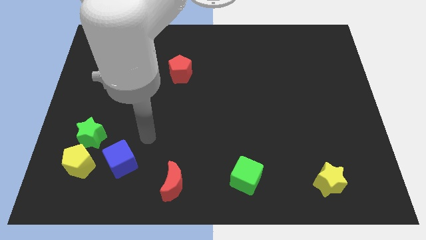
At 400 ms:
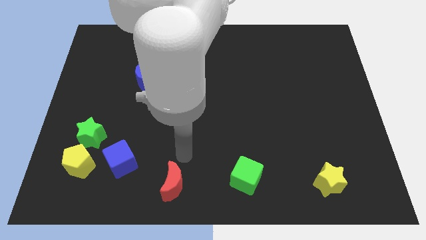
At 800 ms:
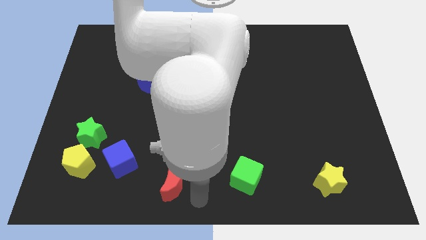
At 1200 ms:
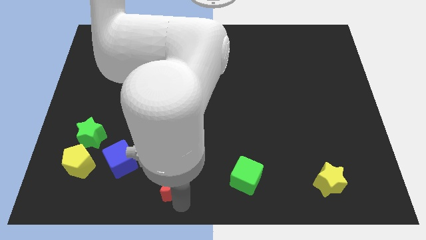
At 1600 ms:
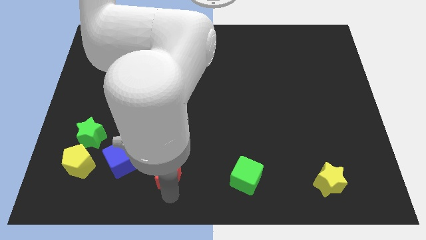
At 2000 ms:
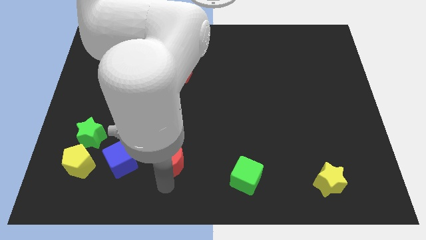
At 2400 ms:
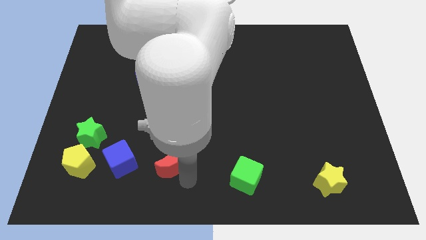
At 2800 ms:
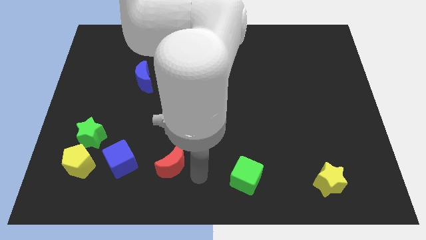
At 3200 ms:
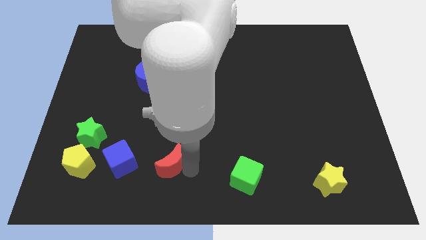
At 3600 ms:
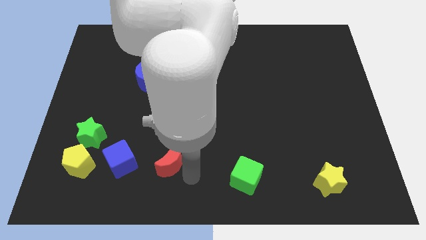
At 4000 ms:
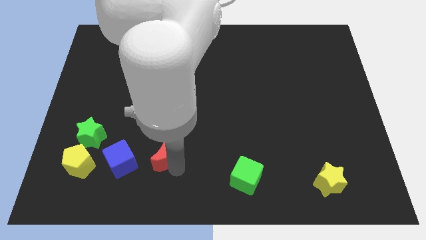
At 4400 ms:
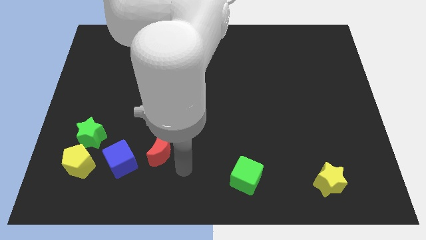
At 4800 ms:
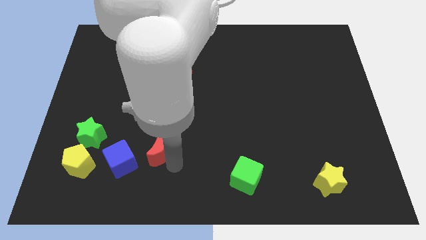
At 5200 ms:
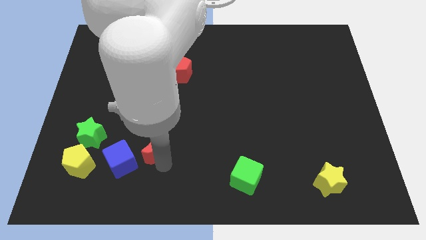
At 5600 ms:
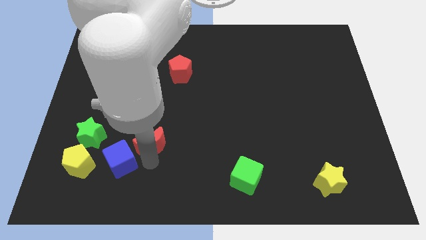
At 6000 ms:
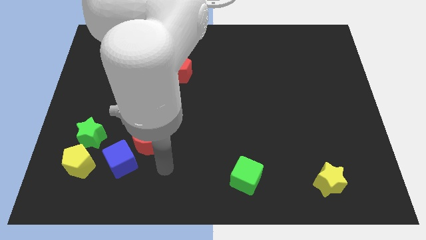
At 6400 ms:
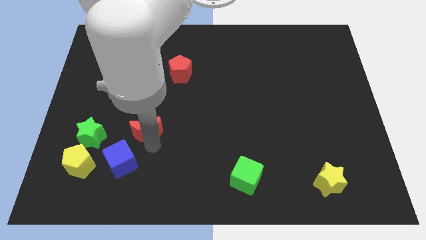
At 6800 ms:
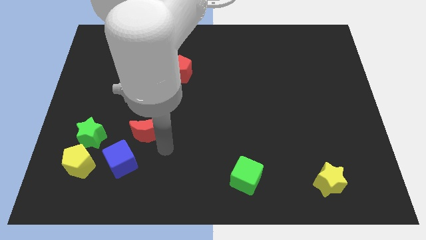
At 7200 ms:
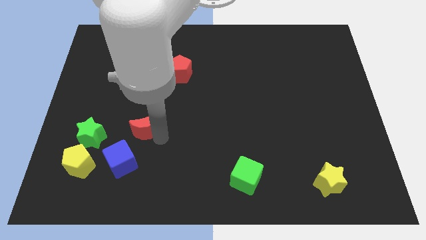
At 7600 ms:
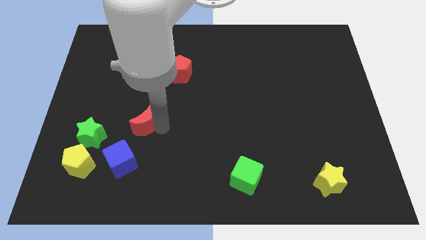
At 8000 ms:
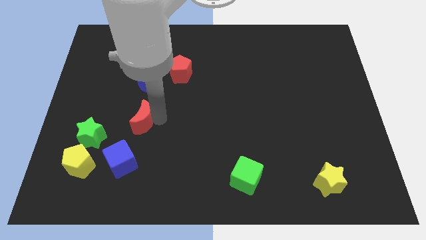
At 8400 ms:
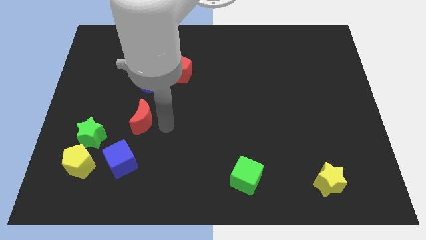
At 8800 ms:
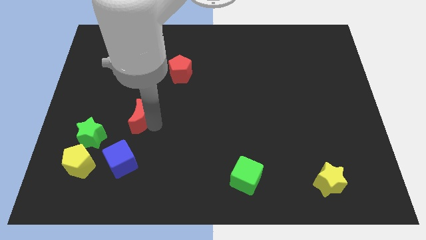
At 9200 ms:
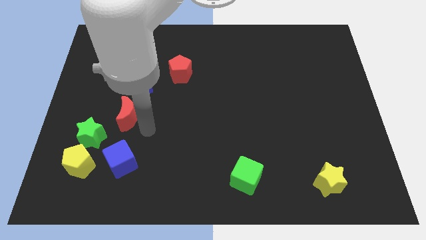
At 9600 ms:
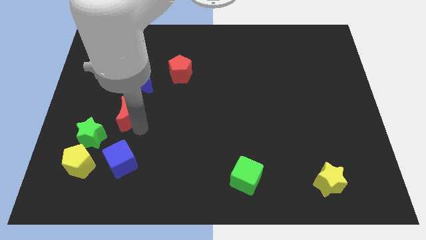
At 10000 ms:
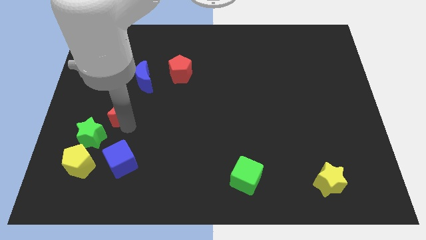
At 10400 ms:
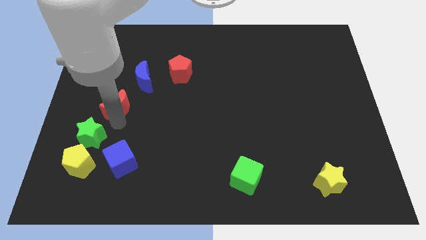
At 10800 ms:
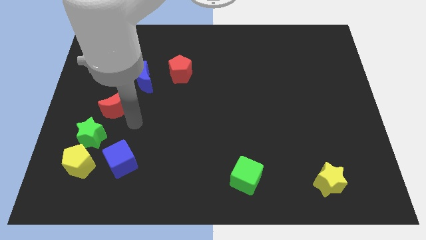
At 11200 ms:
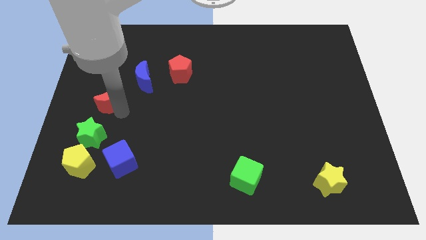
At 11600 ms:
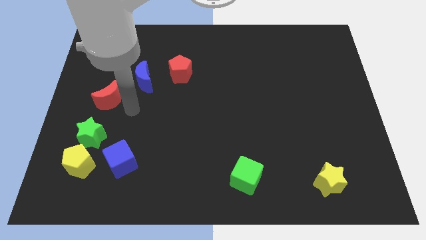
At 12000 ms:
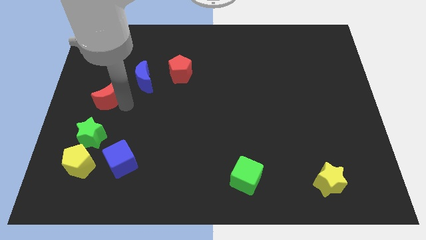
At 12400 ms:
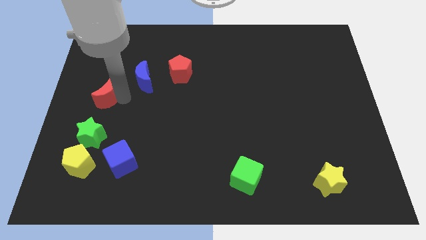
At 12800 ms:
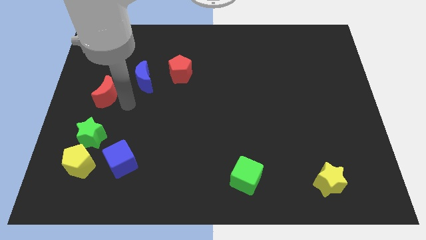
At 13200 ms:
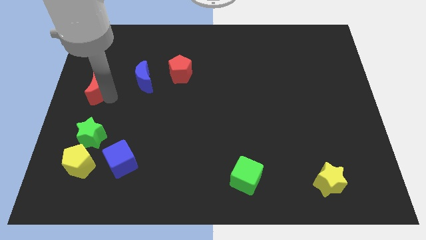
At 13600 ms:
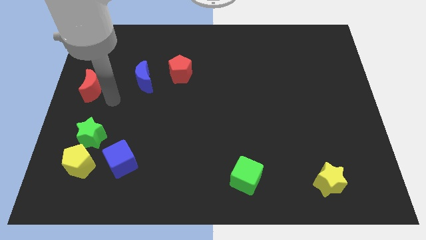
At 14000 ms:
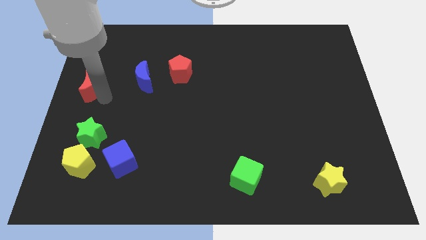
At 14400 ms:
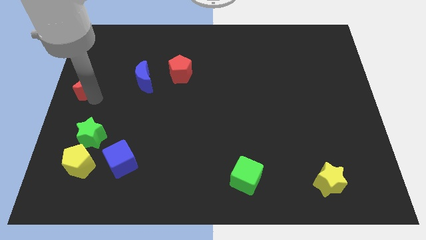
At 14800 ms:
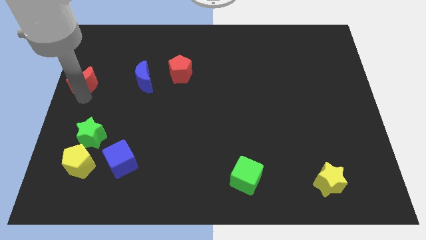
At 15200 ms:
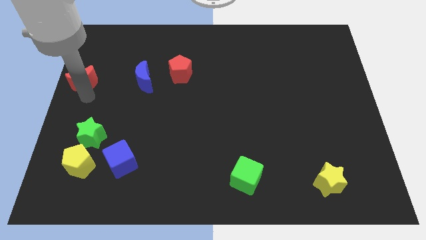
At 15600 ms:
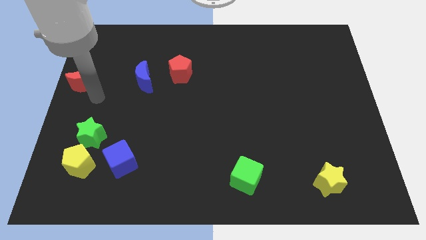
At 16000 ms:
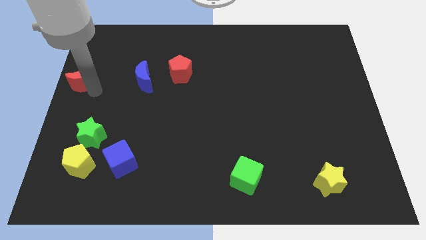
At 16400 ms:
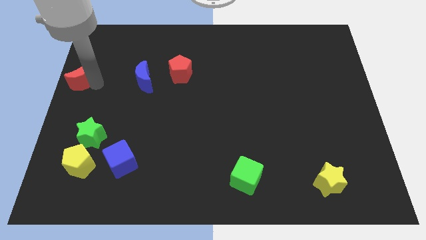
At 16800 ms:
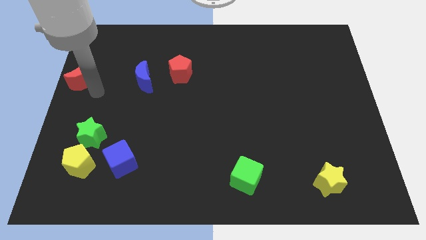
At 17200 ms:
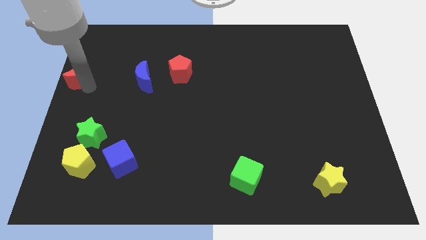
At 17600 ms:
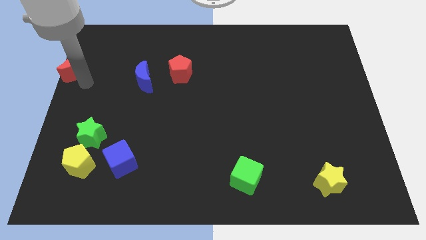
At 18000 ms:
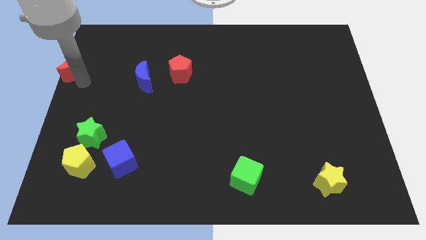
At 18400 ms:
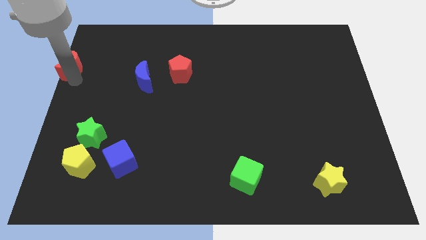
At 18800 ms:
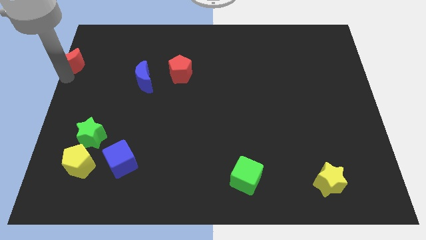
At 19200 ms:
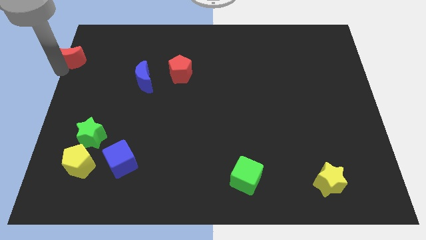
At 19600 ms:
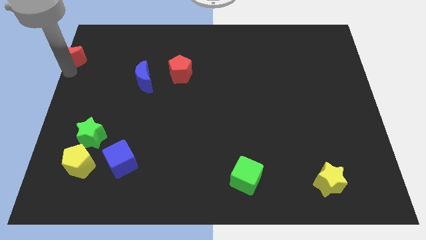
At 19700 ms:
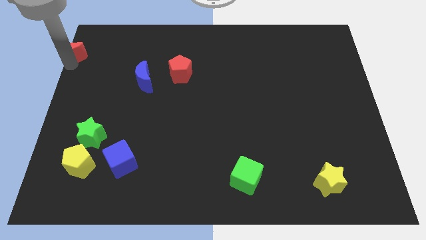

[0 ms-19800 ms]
put the red moon to the upper left corner

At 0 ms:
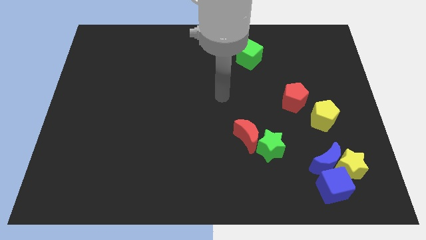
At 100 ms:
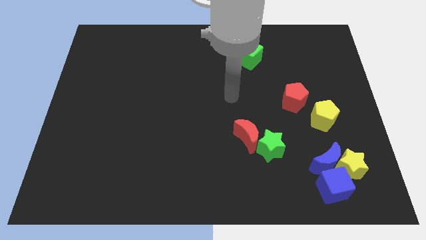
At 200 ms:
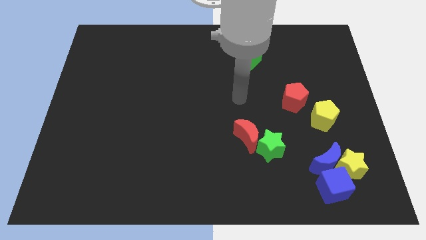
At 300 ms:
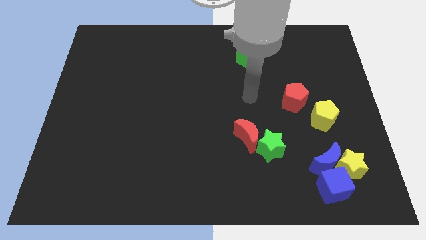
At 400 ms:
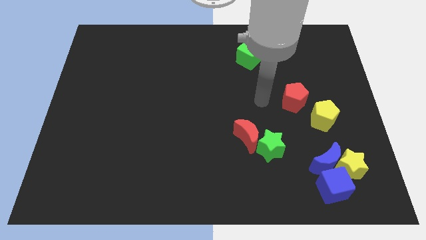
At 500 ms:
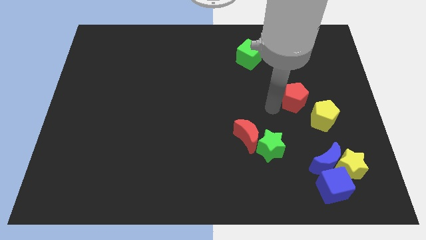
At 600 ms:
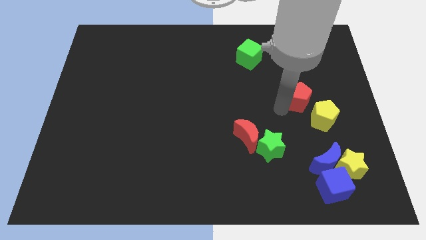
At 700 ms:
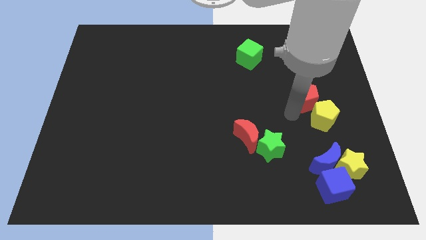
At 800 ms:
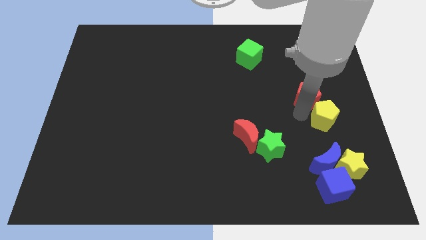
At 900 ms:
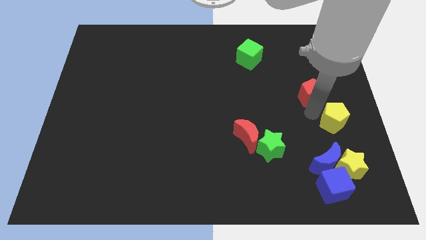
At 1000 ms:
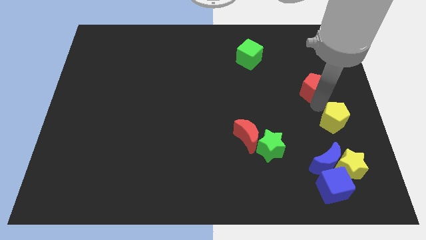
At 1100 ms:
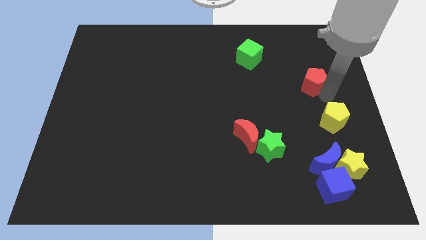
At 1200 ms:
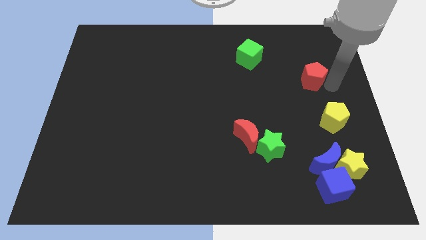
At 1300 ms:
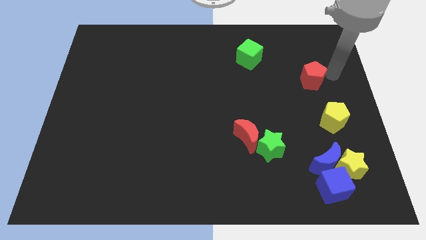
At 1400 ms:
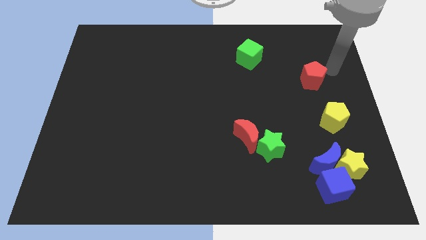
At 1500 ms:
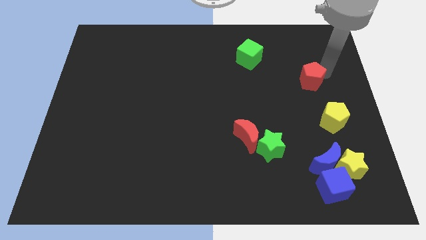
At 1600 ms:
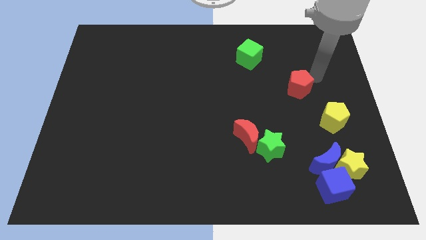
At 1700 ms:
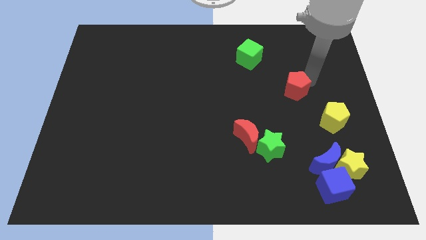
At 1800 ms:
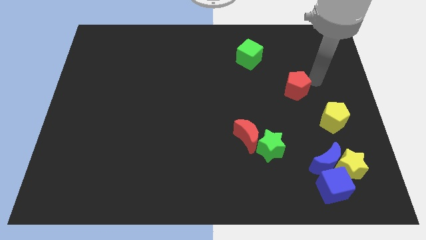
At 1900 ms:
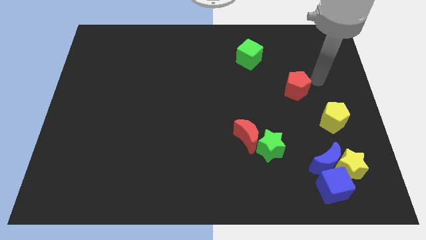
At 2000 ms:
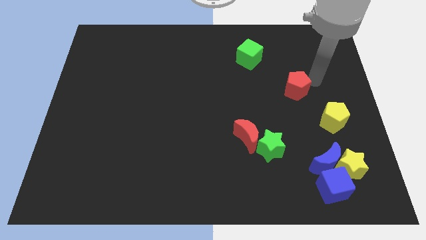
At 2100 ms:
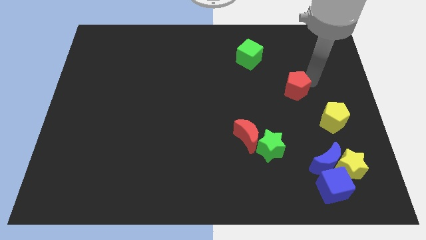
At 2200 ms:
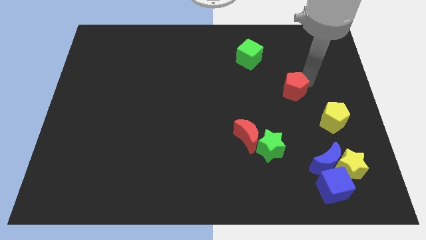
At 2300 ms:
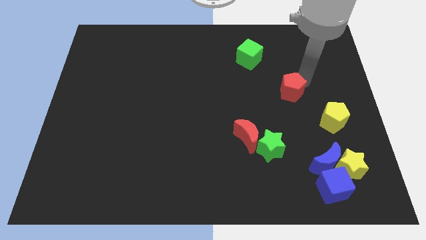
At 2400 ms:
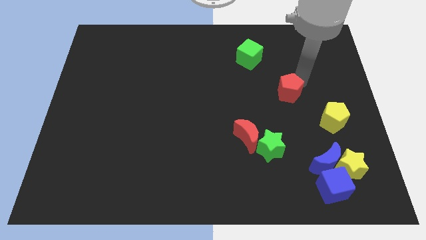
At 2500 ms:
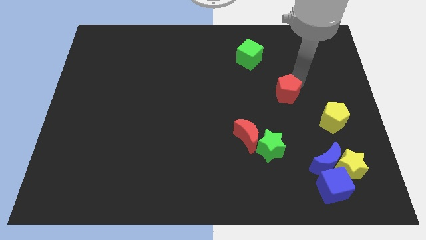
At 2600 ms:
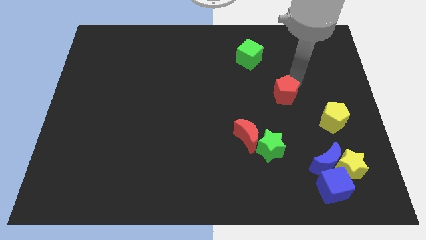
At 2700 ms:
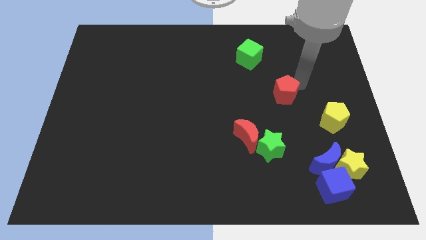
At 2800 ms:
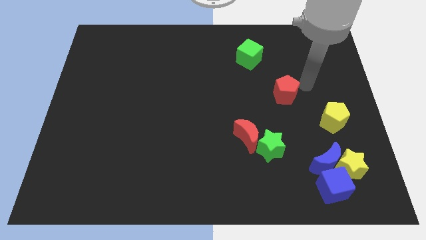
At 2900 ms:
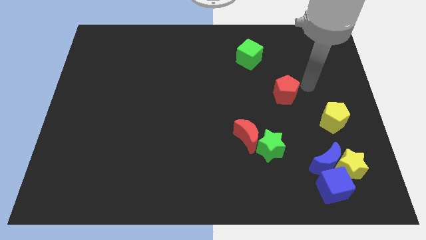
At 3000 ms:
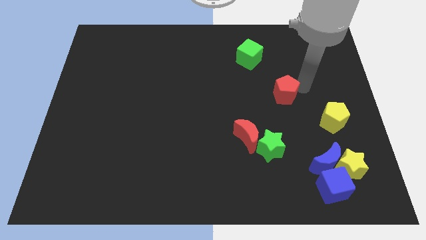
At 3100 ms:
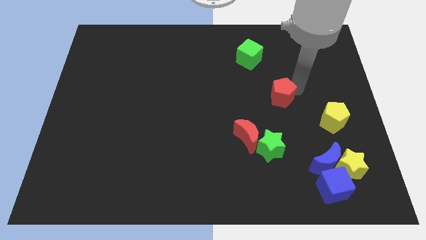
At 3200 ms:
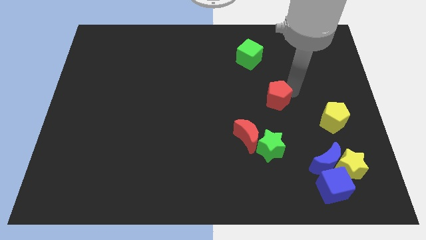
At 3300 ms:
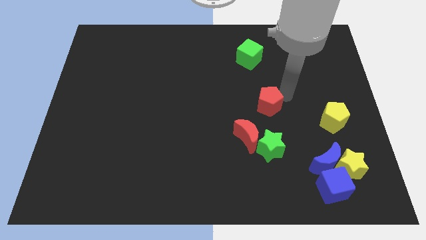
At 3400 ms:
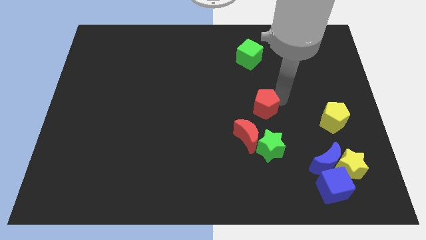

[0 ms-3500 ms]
put the red pentagon to the middle
